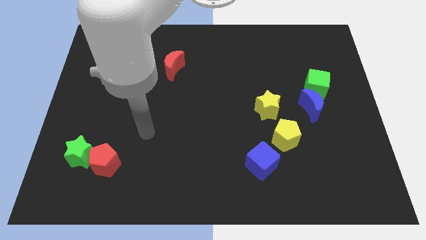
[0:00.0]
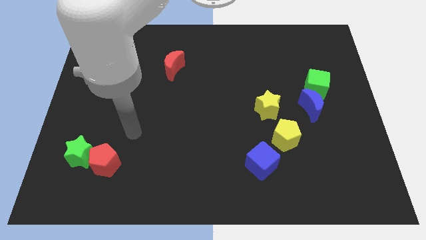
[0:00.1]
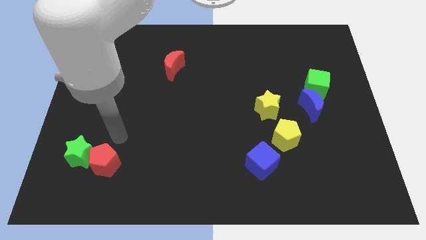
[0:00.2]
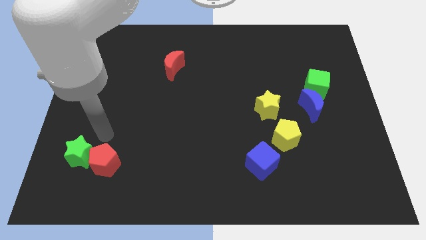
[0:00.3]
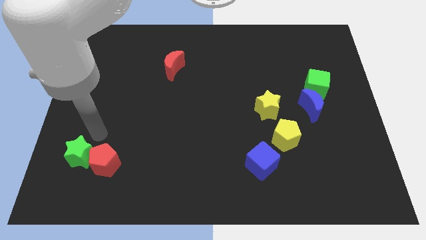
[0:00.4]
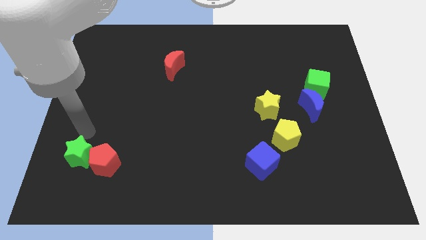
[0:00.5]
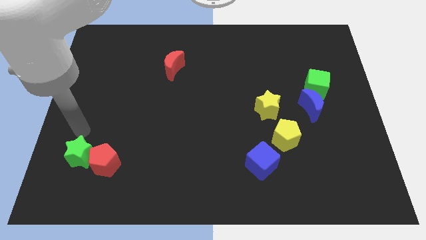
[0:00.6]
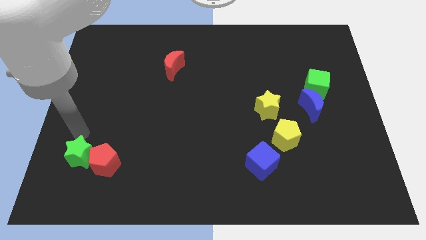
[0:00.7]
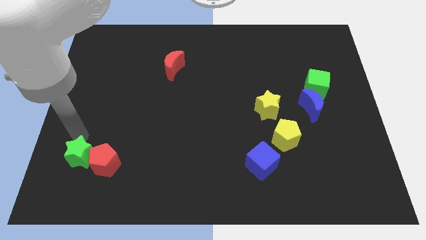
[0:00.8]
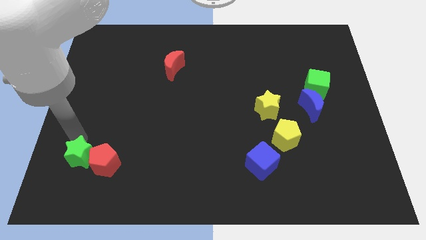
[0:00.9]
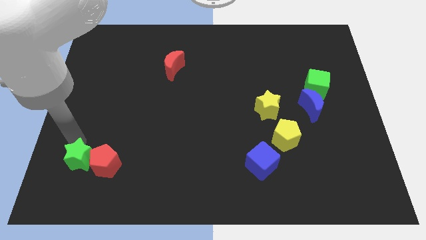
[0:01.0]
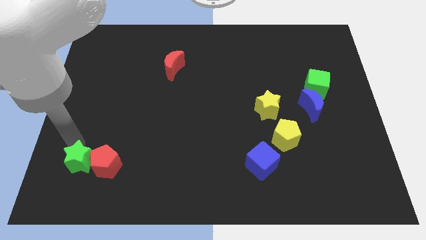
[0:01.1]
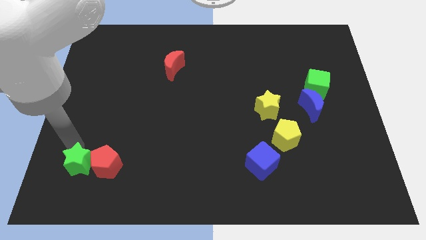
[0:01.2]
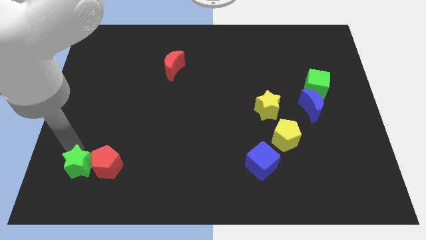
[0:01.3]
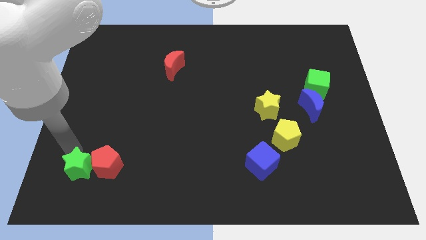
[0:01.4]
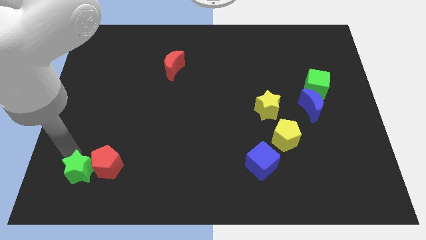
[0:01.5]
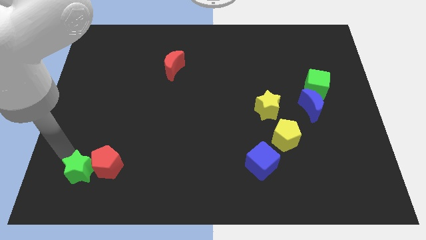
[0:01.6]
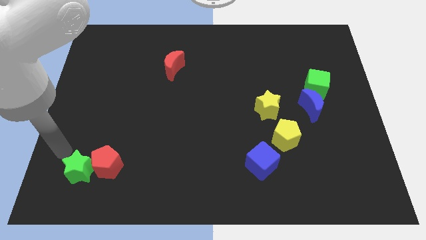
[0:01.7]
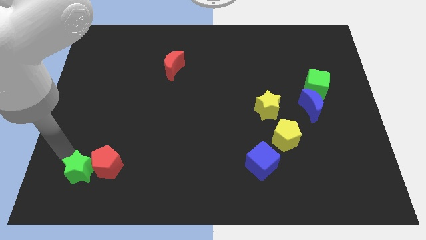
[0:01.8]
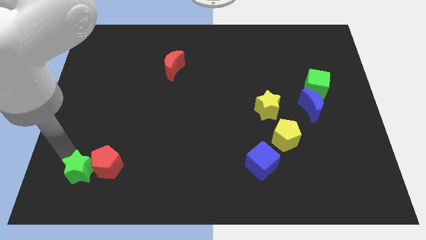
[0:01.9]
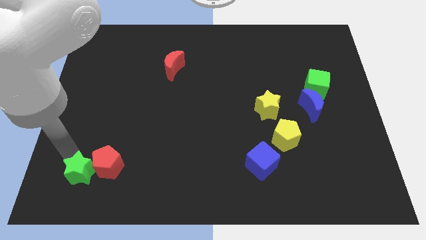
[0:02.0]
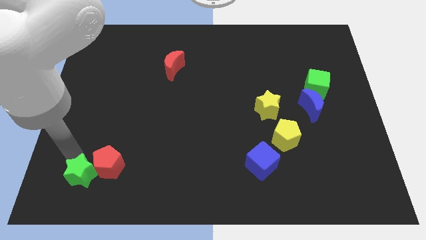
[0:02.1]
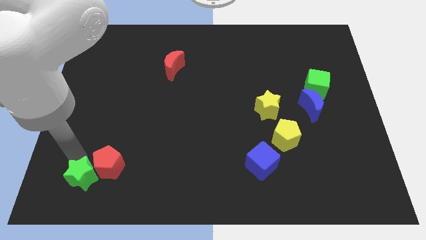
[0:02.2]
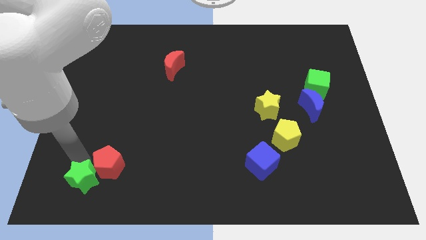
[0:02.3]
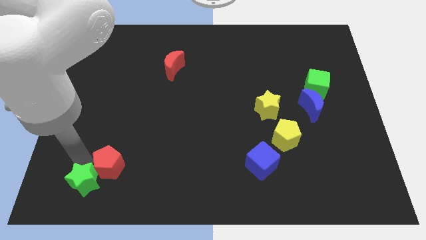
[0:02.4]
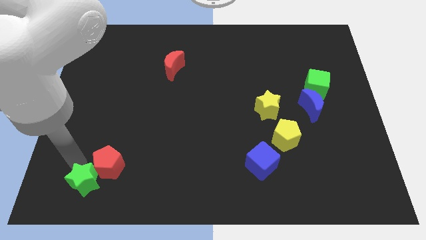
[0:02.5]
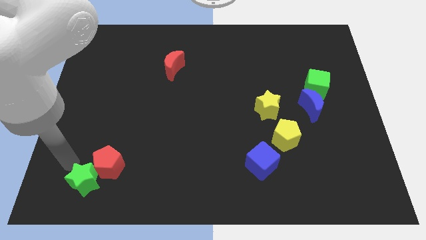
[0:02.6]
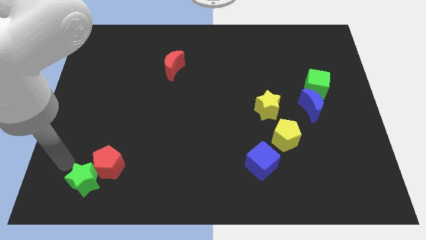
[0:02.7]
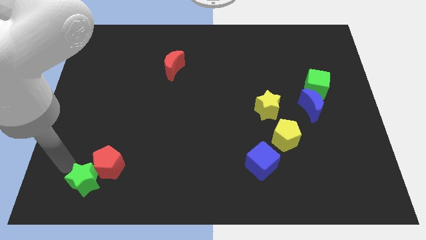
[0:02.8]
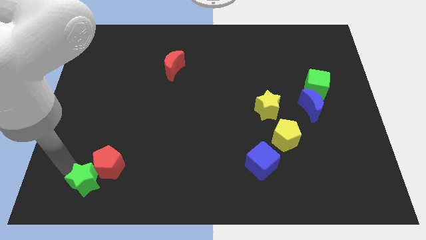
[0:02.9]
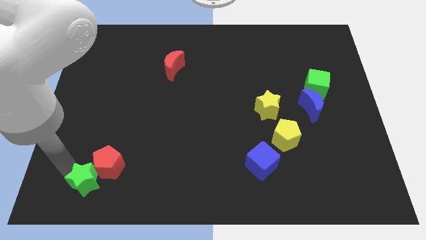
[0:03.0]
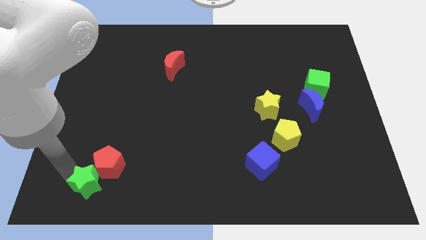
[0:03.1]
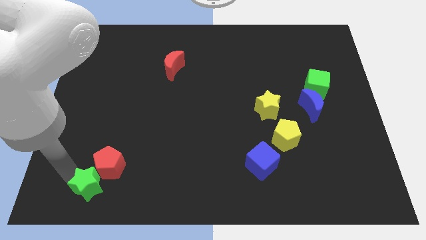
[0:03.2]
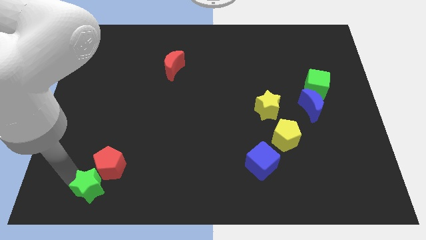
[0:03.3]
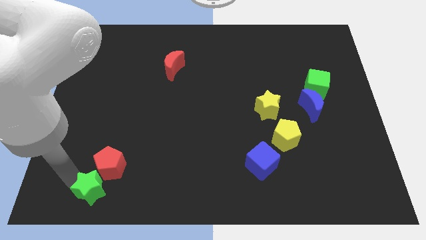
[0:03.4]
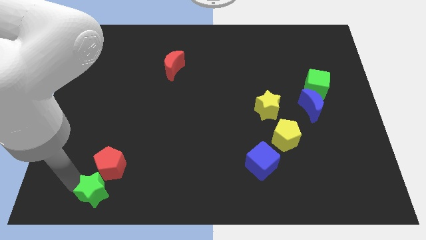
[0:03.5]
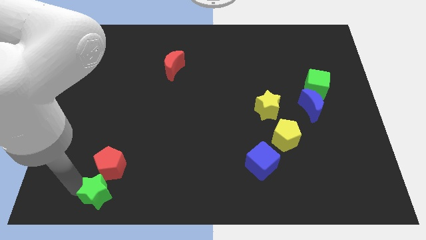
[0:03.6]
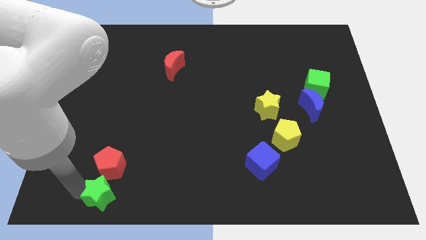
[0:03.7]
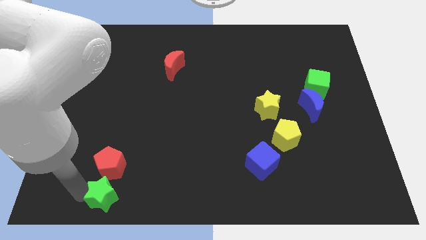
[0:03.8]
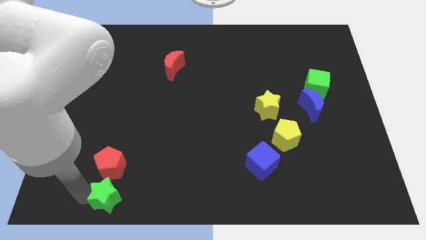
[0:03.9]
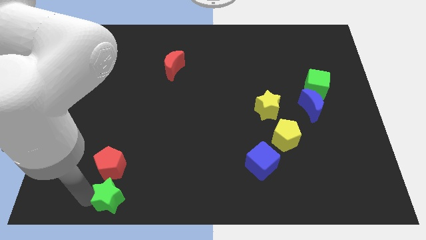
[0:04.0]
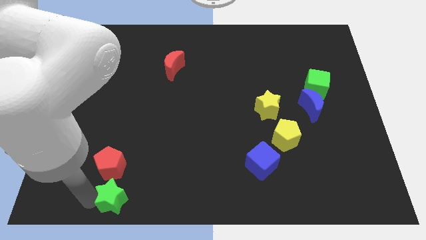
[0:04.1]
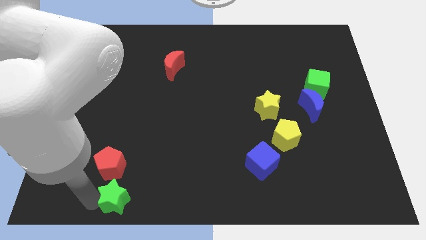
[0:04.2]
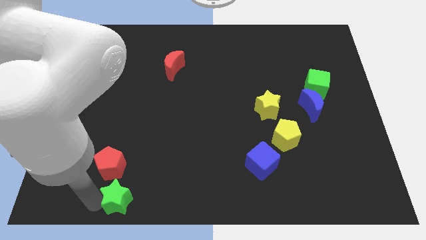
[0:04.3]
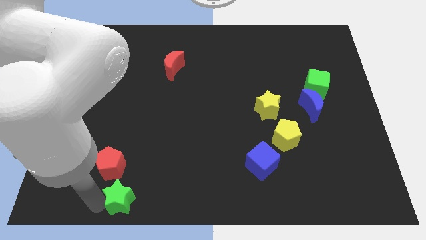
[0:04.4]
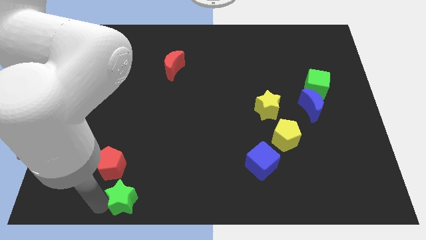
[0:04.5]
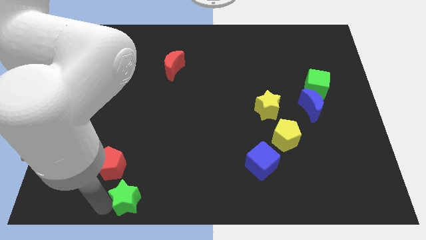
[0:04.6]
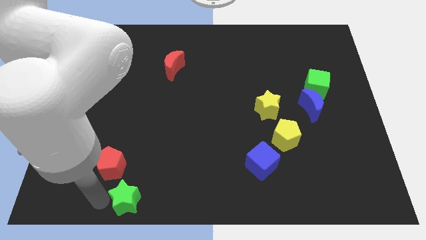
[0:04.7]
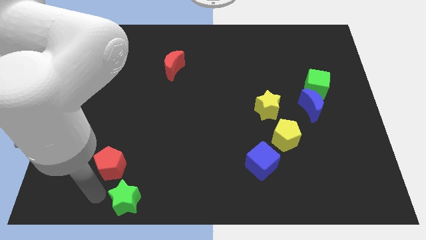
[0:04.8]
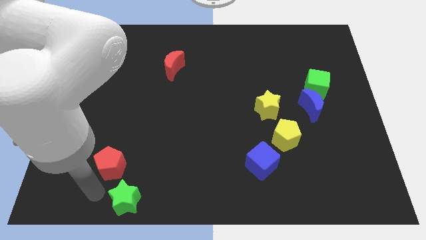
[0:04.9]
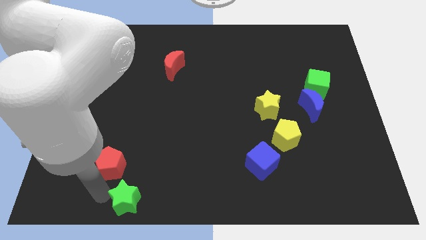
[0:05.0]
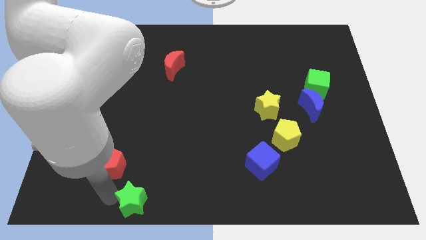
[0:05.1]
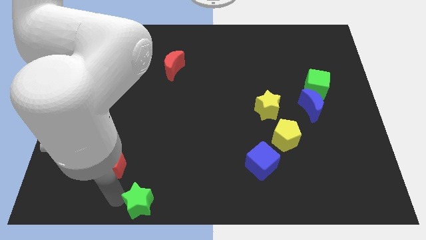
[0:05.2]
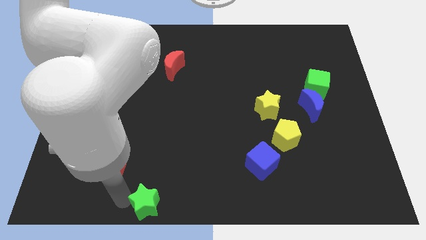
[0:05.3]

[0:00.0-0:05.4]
slide the green star to the bottom side

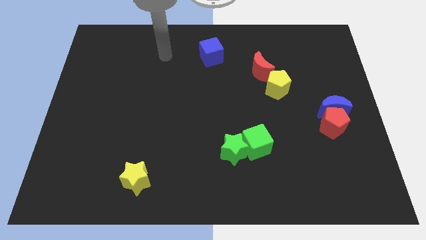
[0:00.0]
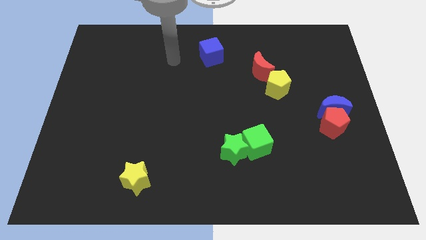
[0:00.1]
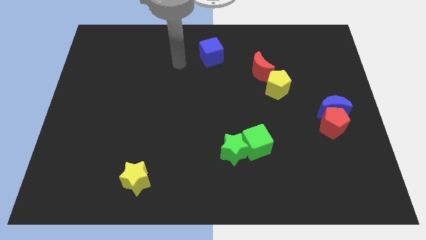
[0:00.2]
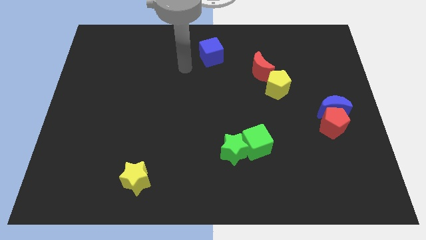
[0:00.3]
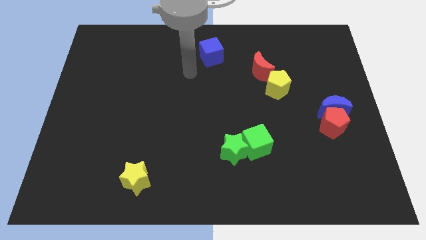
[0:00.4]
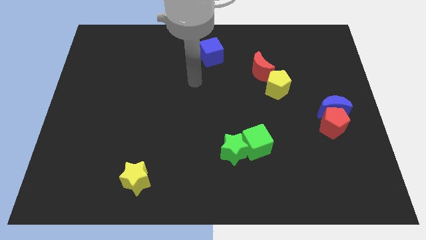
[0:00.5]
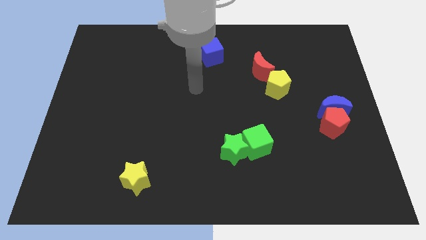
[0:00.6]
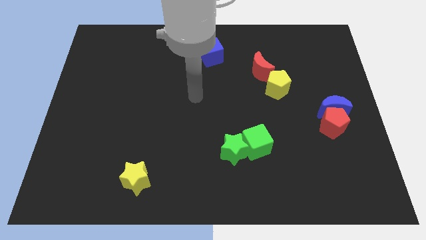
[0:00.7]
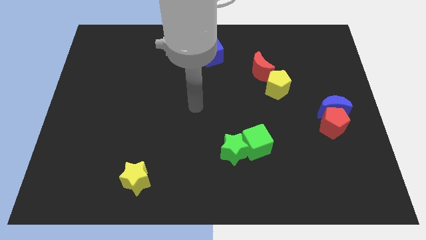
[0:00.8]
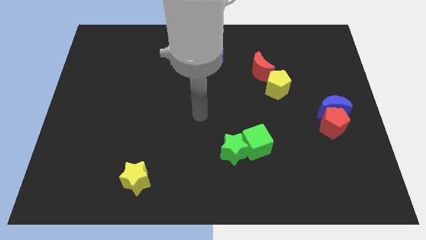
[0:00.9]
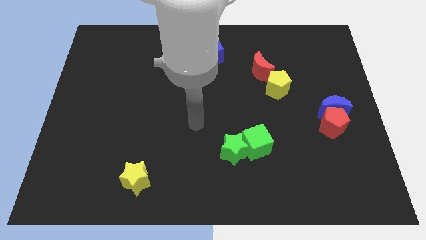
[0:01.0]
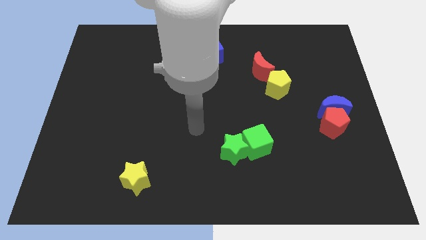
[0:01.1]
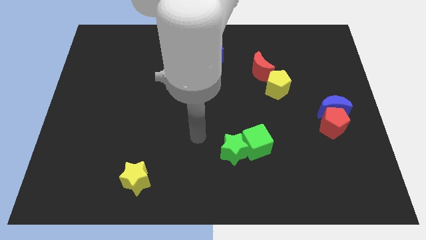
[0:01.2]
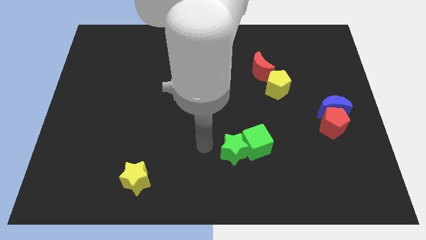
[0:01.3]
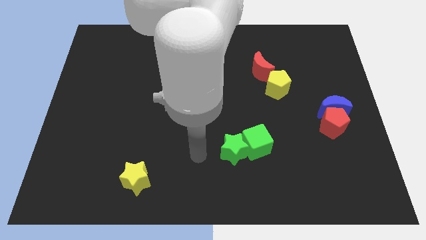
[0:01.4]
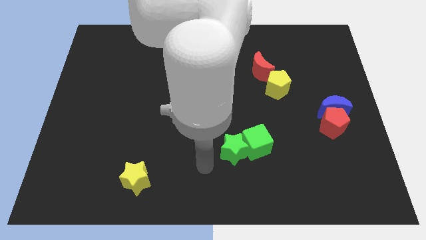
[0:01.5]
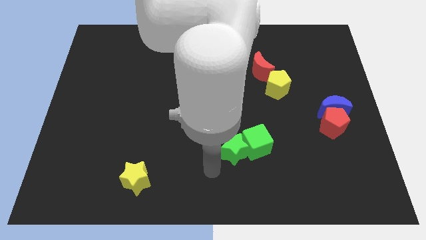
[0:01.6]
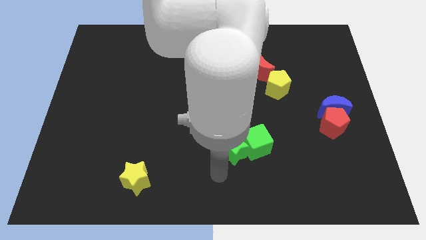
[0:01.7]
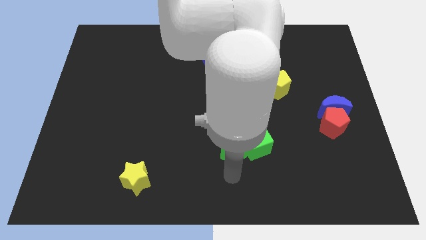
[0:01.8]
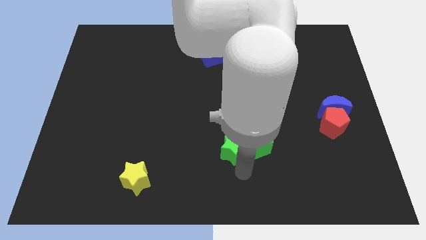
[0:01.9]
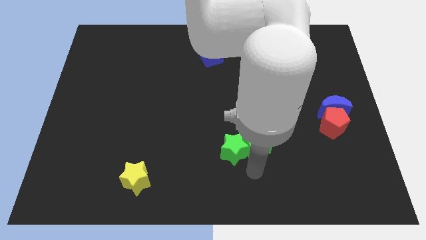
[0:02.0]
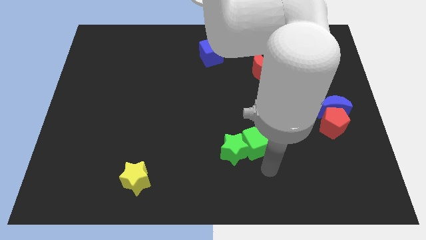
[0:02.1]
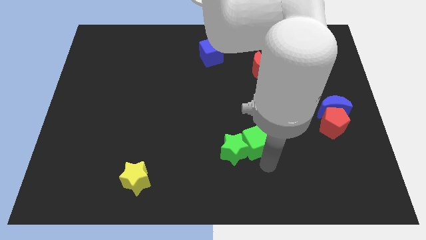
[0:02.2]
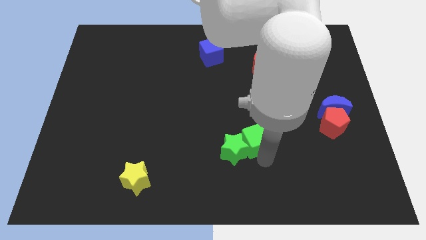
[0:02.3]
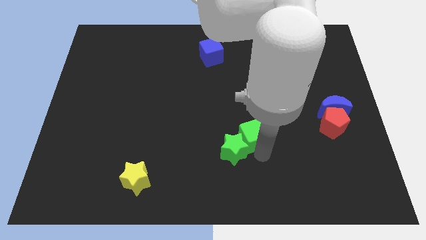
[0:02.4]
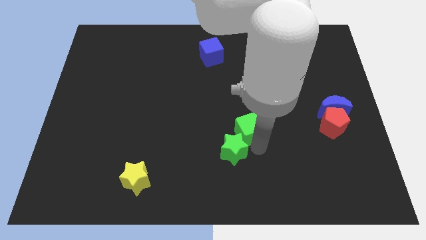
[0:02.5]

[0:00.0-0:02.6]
put the green cube to the center of the board
